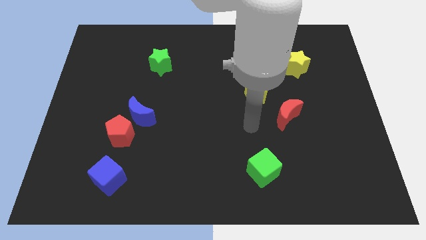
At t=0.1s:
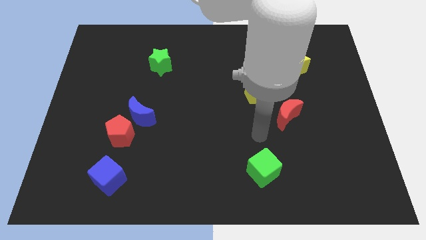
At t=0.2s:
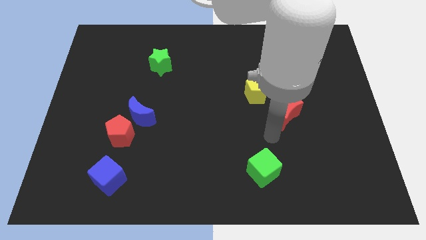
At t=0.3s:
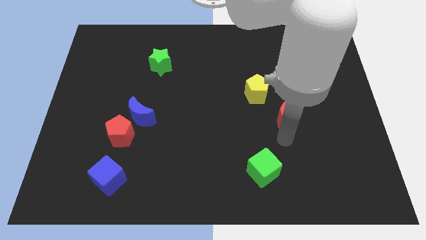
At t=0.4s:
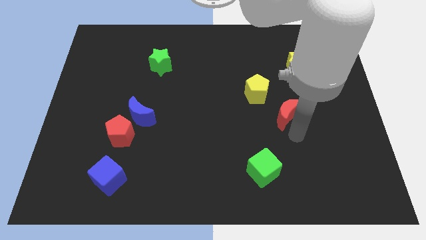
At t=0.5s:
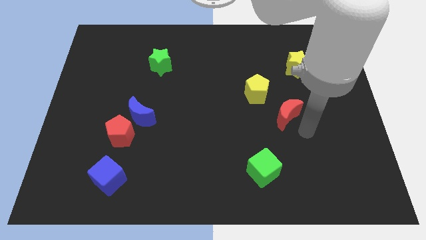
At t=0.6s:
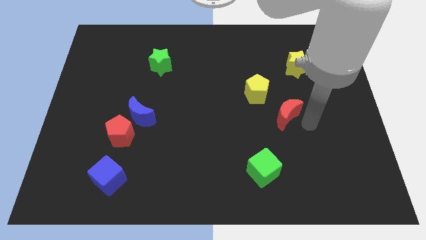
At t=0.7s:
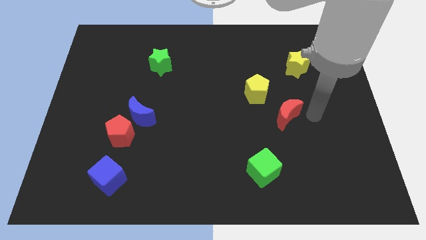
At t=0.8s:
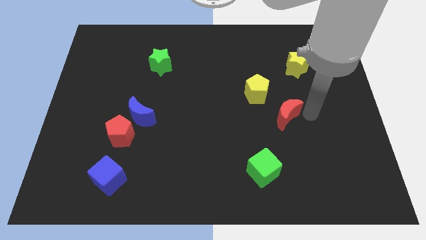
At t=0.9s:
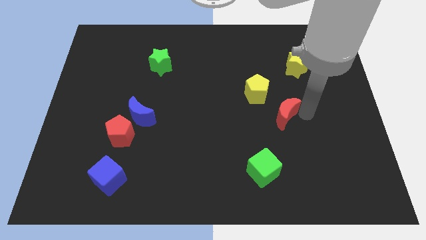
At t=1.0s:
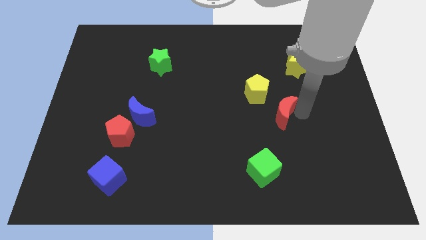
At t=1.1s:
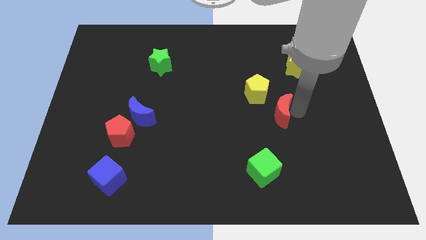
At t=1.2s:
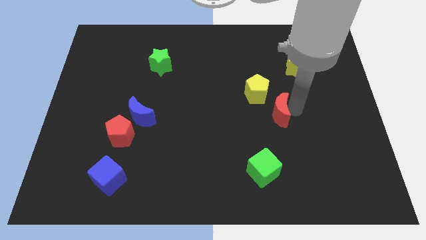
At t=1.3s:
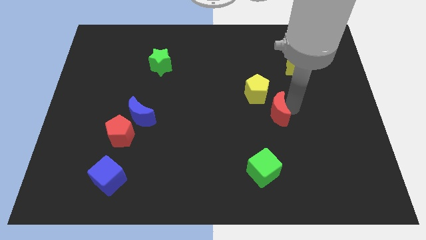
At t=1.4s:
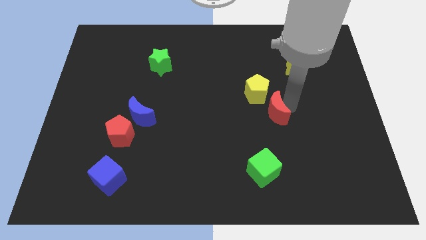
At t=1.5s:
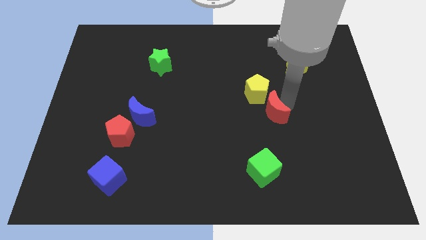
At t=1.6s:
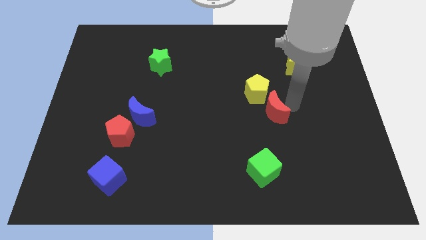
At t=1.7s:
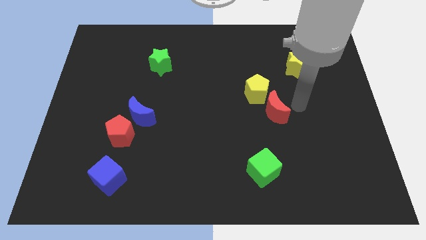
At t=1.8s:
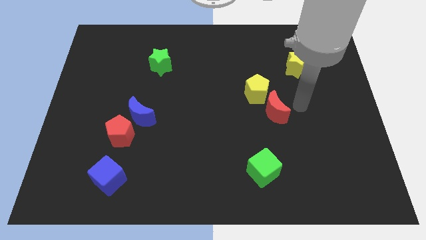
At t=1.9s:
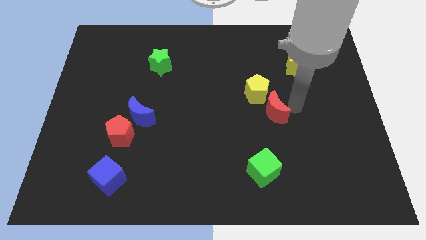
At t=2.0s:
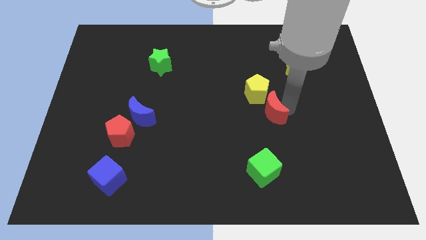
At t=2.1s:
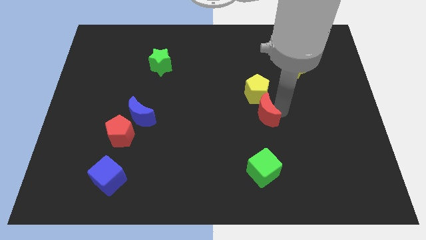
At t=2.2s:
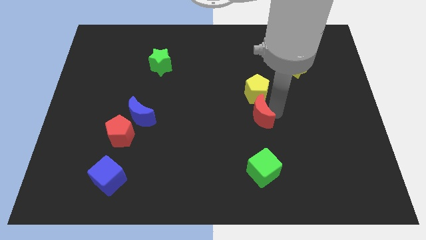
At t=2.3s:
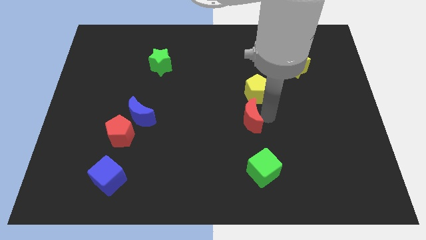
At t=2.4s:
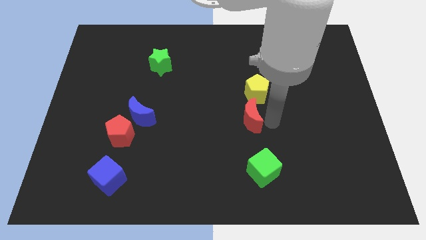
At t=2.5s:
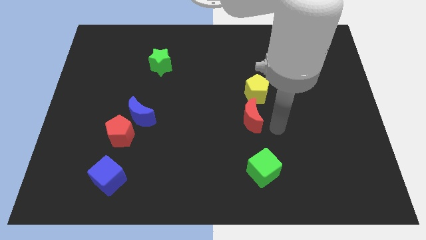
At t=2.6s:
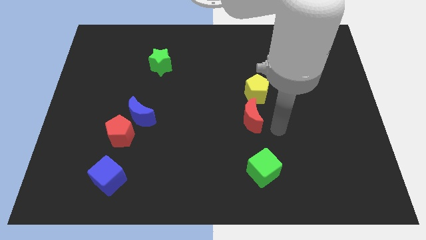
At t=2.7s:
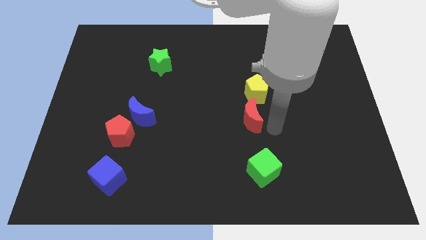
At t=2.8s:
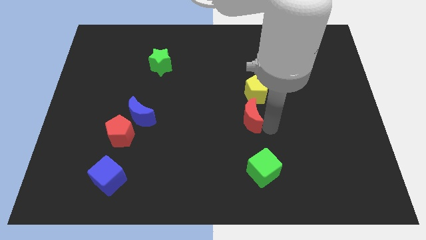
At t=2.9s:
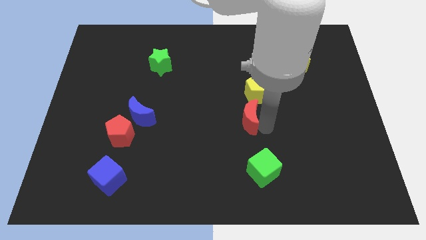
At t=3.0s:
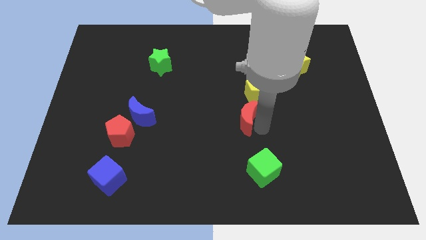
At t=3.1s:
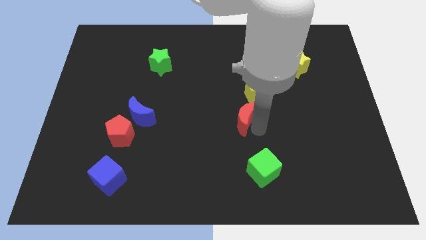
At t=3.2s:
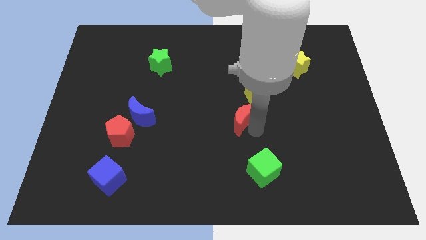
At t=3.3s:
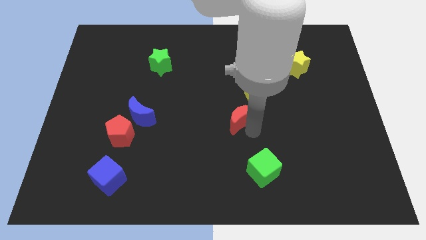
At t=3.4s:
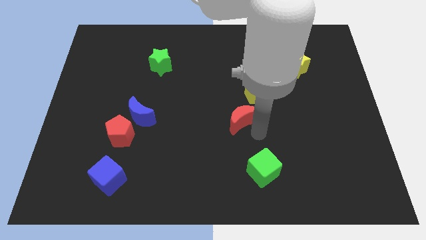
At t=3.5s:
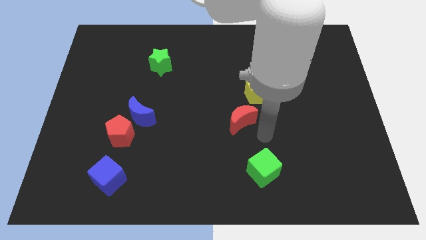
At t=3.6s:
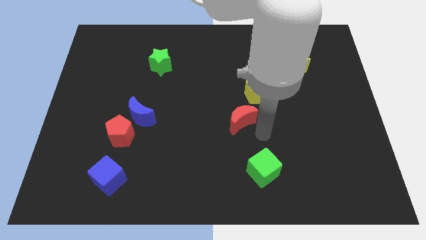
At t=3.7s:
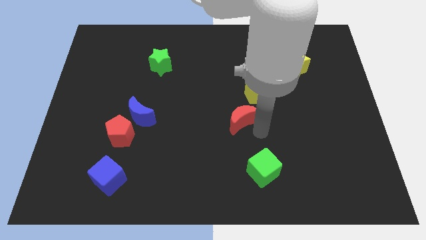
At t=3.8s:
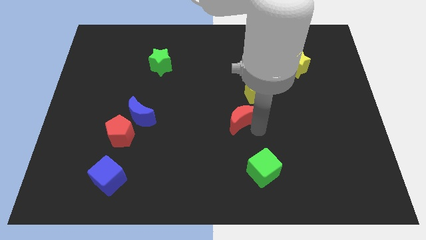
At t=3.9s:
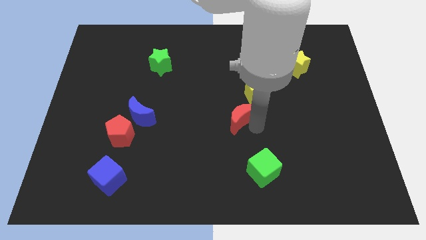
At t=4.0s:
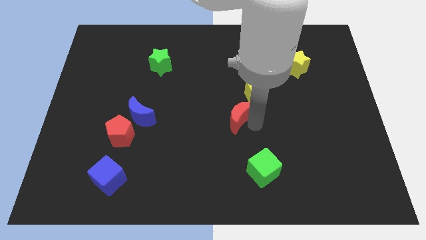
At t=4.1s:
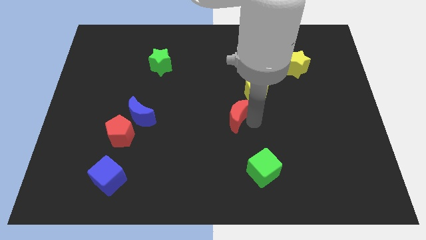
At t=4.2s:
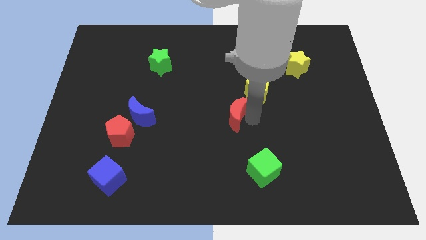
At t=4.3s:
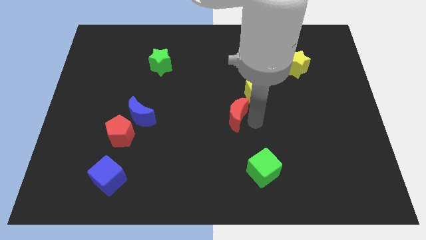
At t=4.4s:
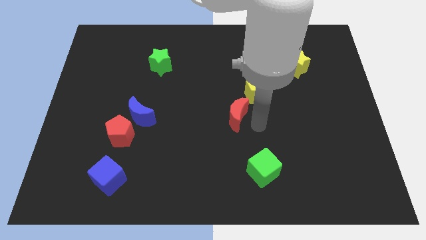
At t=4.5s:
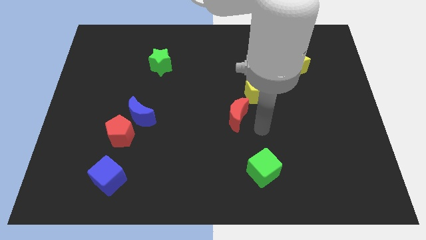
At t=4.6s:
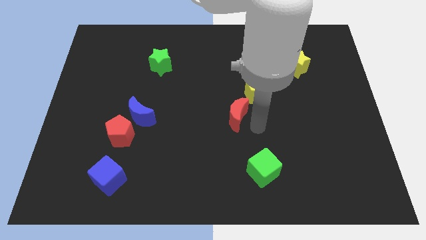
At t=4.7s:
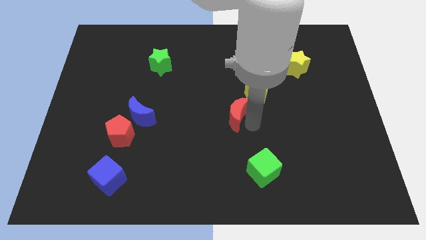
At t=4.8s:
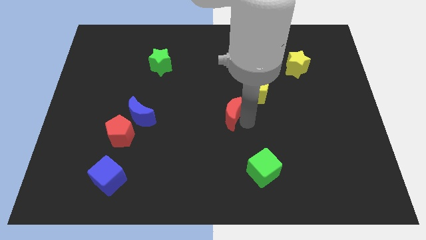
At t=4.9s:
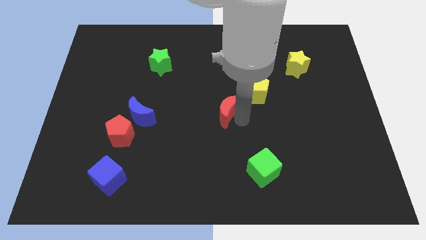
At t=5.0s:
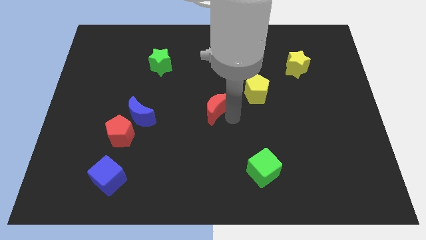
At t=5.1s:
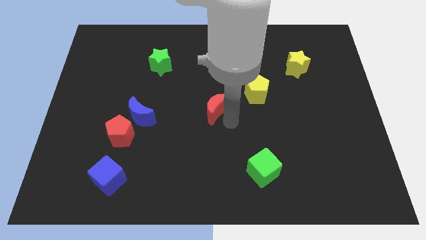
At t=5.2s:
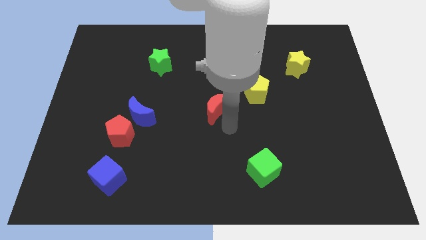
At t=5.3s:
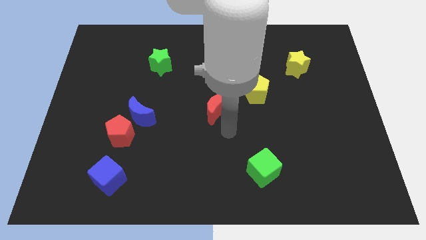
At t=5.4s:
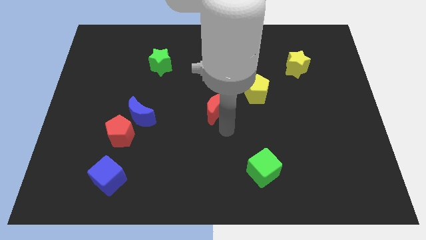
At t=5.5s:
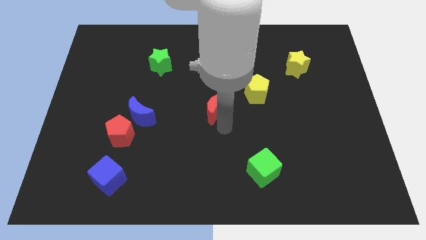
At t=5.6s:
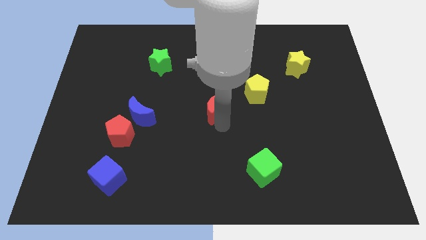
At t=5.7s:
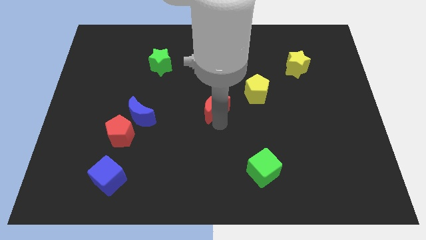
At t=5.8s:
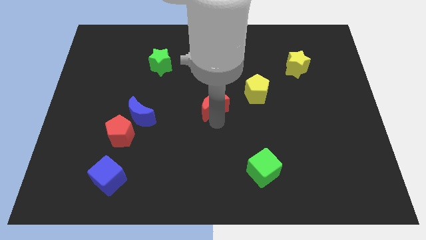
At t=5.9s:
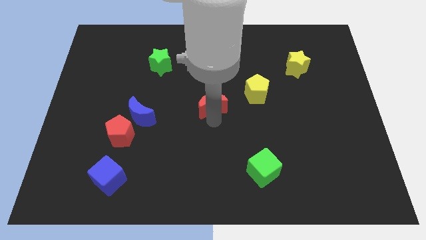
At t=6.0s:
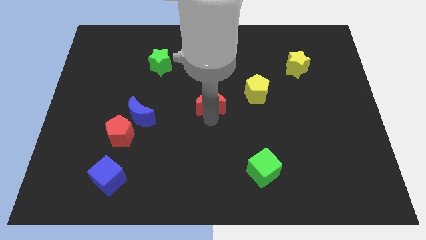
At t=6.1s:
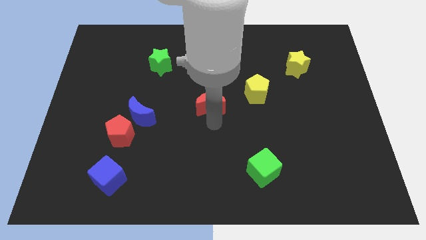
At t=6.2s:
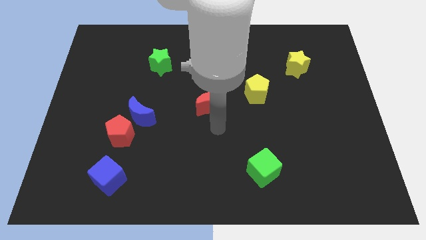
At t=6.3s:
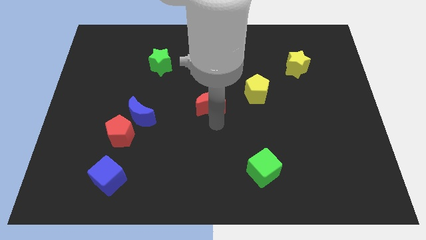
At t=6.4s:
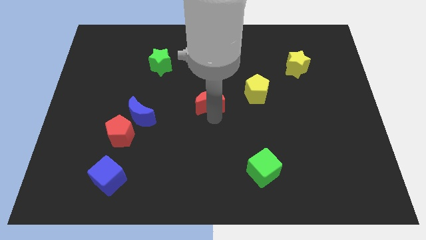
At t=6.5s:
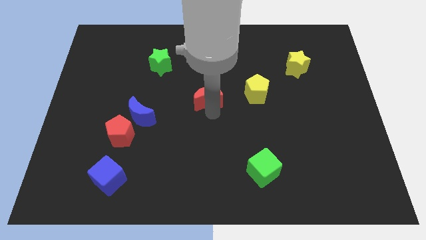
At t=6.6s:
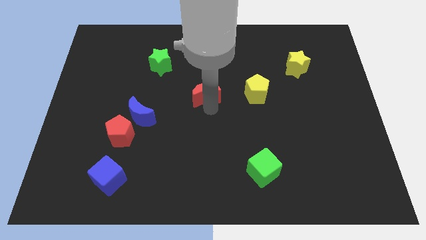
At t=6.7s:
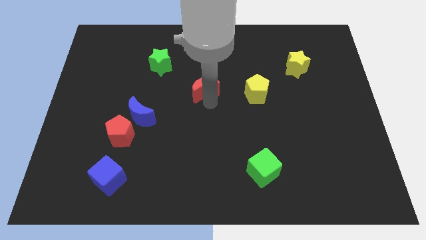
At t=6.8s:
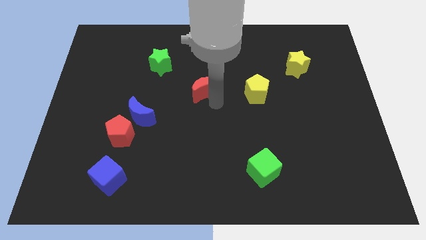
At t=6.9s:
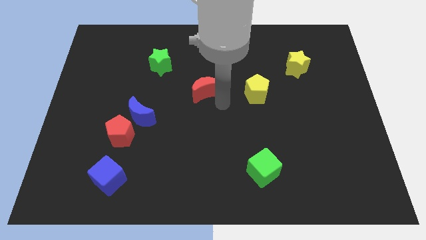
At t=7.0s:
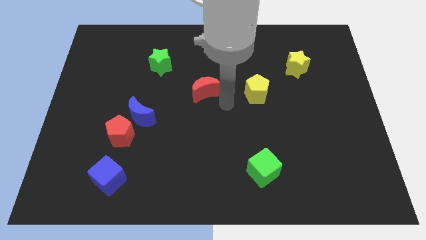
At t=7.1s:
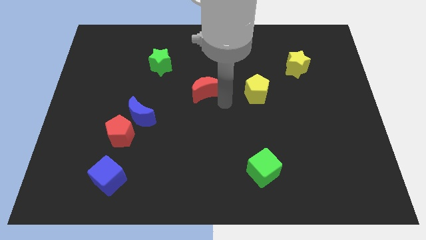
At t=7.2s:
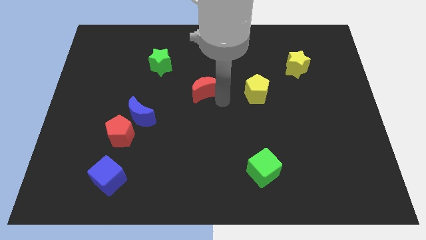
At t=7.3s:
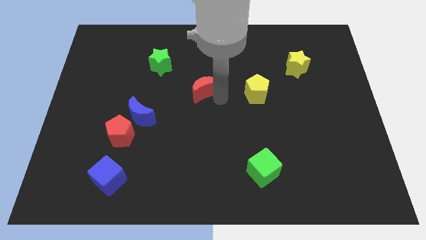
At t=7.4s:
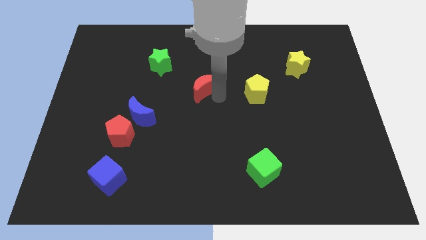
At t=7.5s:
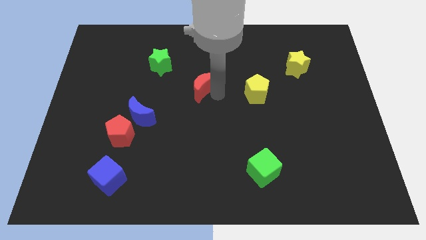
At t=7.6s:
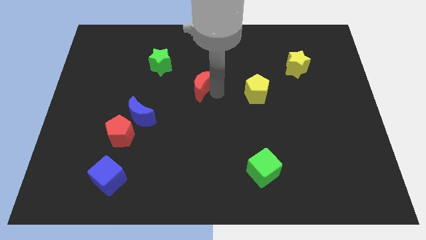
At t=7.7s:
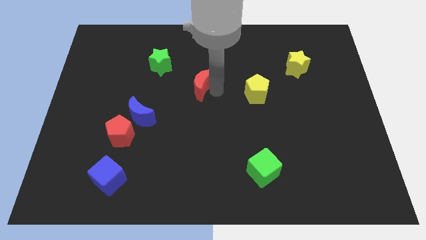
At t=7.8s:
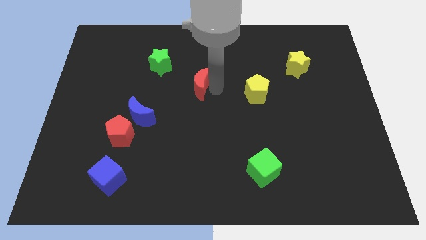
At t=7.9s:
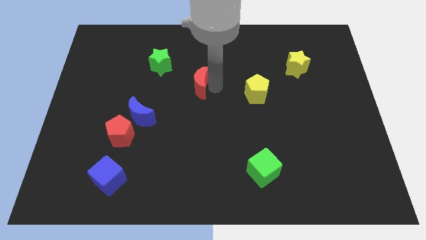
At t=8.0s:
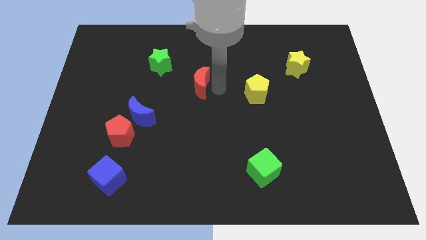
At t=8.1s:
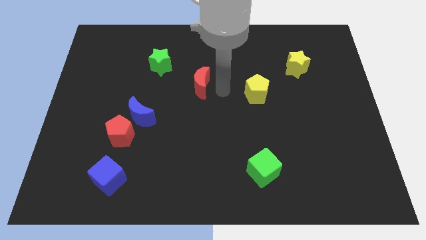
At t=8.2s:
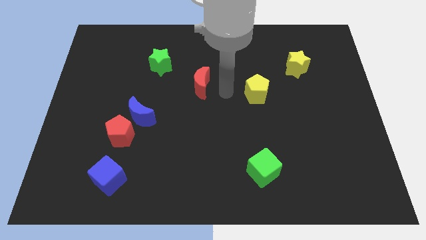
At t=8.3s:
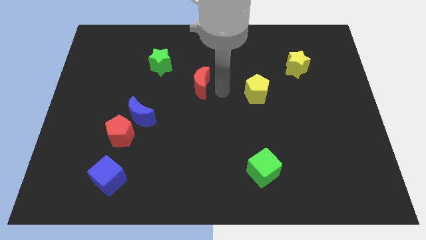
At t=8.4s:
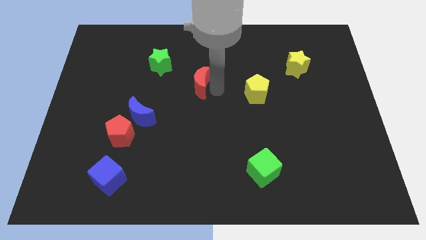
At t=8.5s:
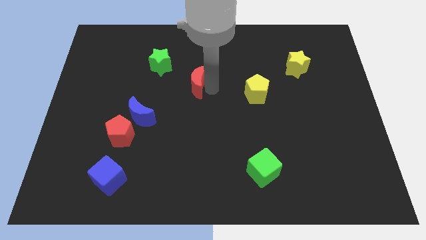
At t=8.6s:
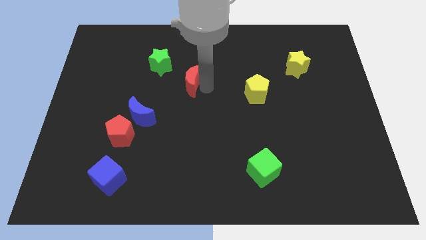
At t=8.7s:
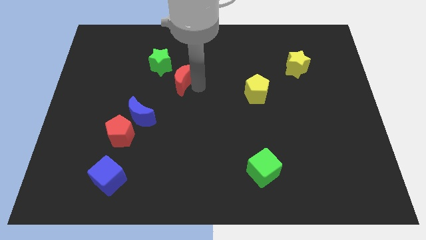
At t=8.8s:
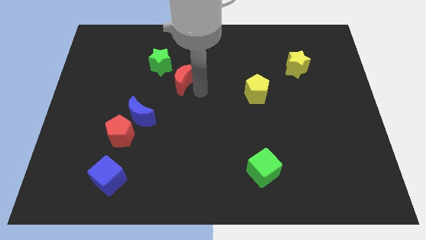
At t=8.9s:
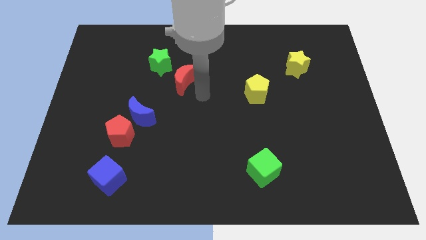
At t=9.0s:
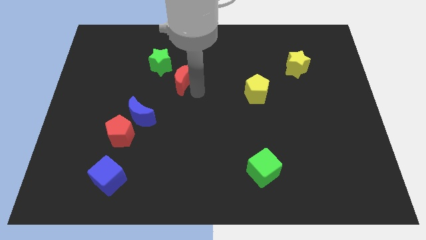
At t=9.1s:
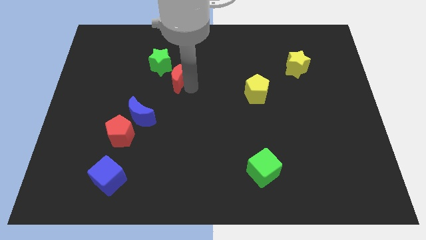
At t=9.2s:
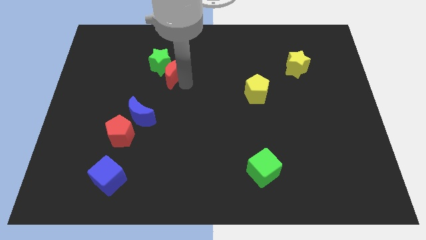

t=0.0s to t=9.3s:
push the red moon next to the green star
